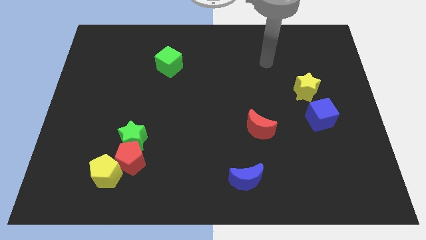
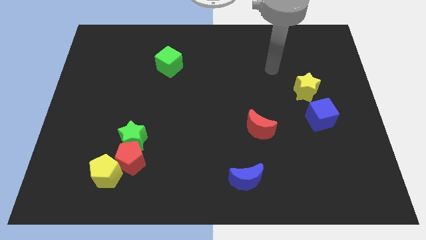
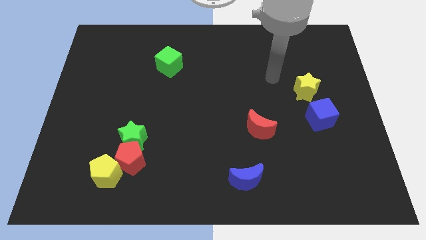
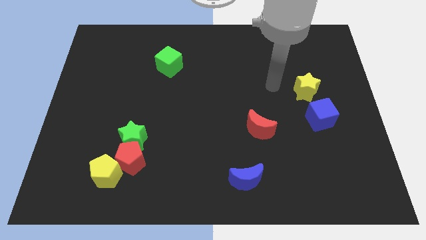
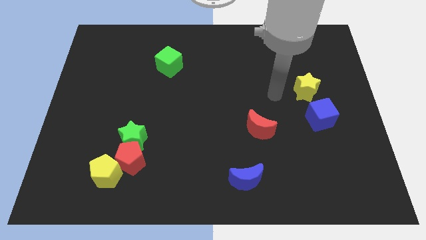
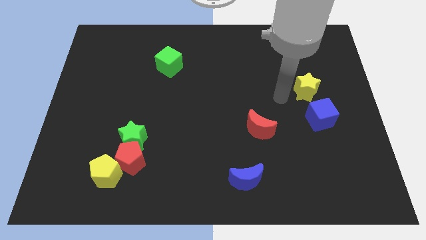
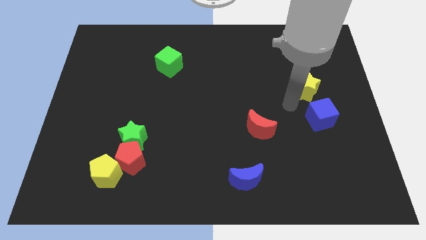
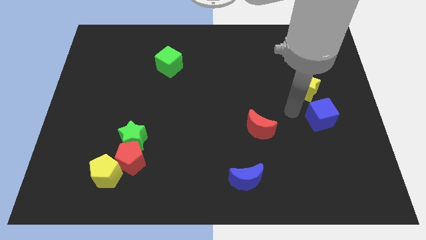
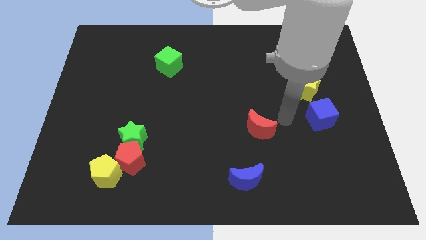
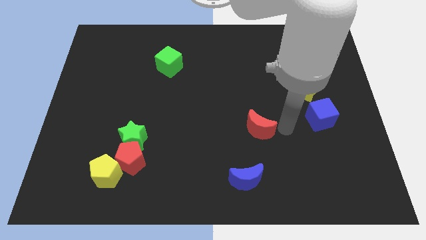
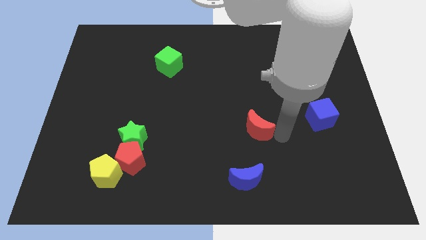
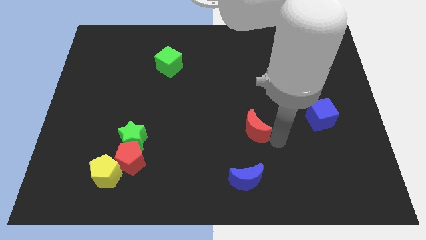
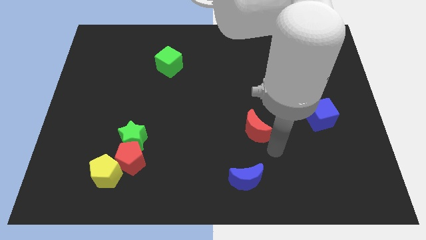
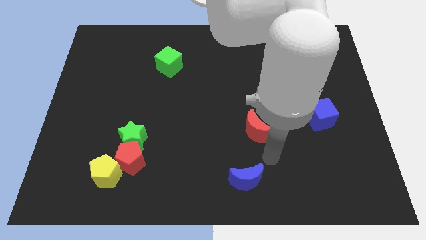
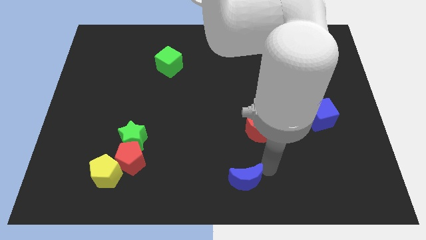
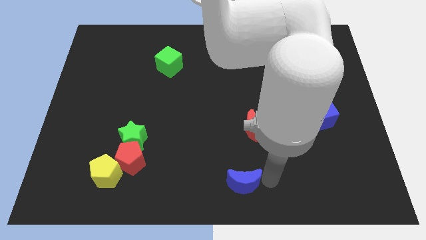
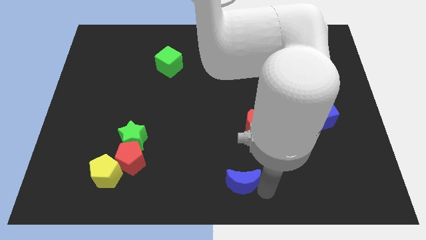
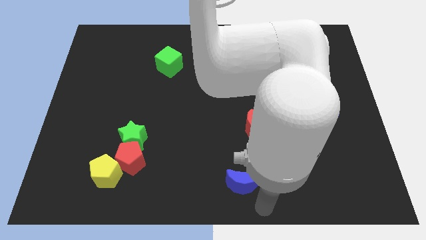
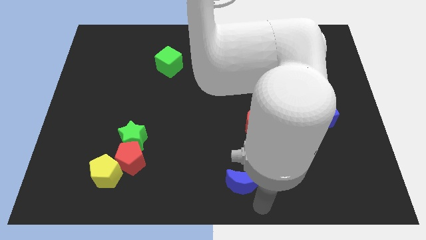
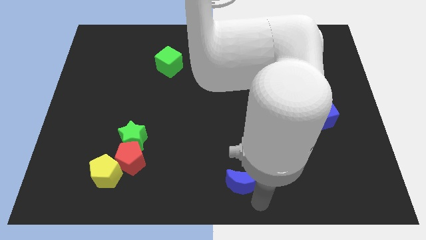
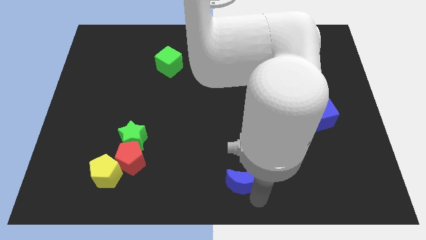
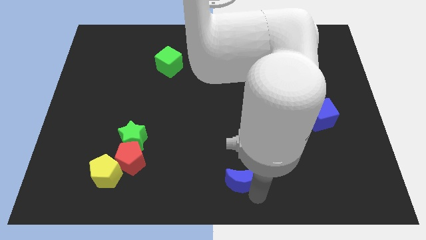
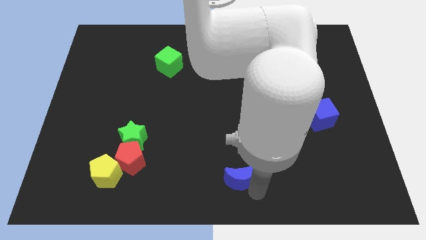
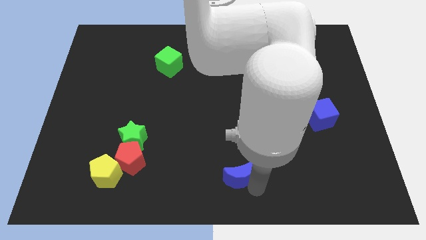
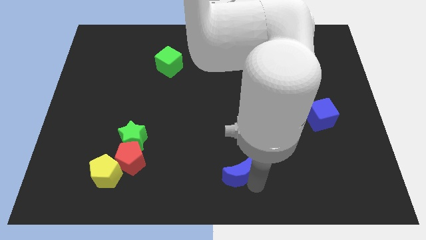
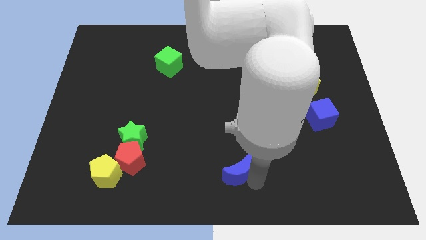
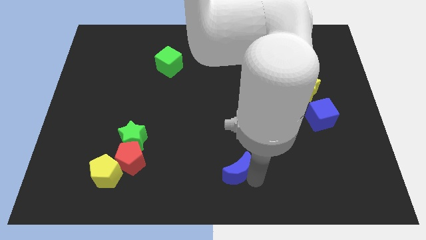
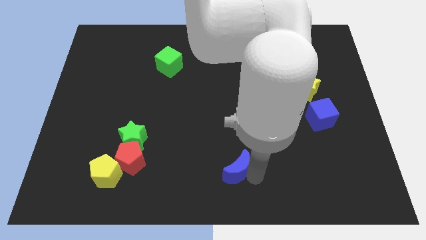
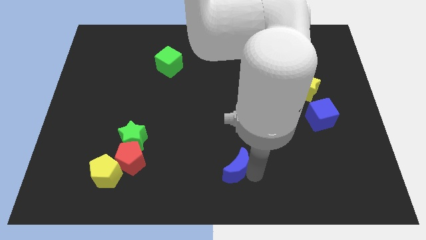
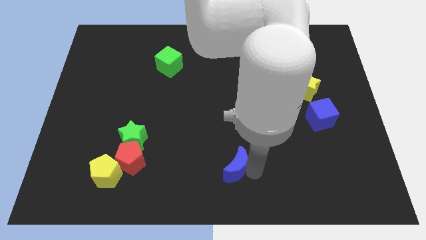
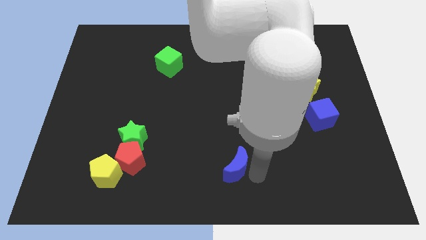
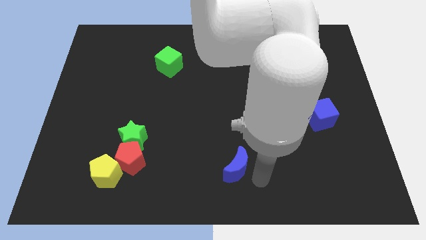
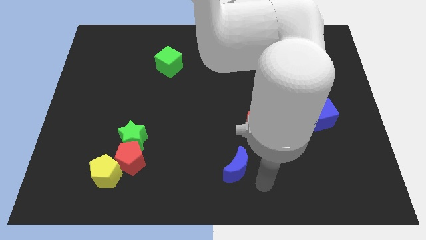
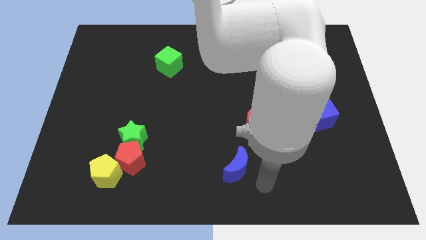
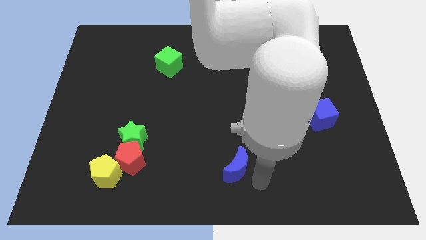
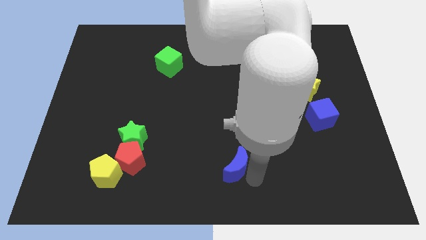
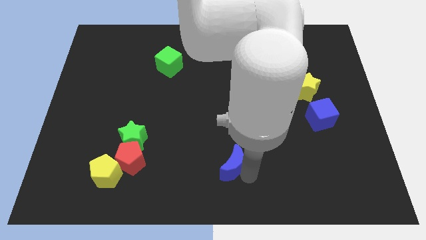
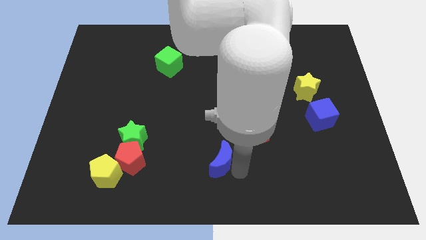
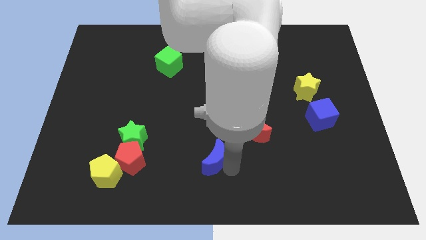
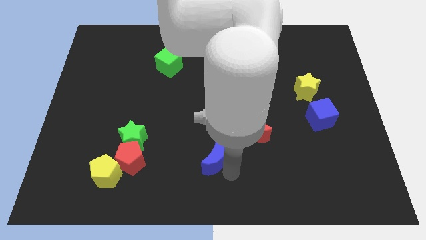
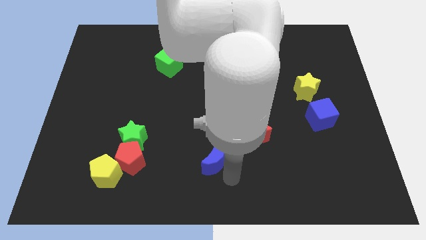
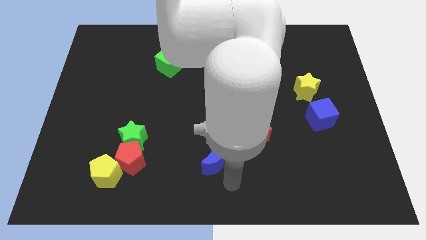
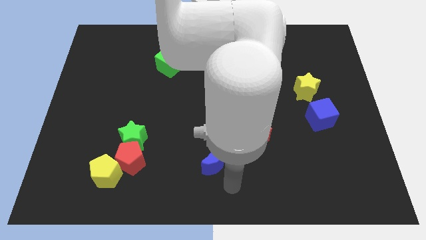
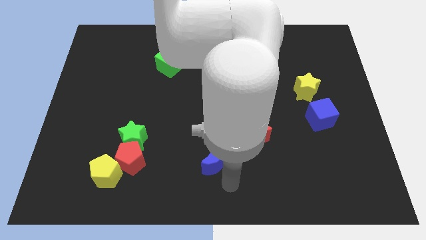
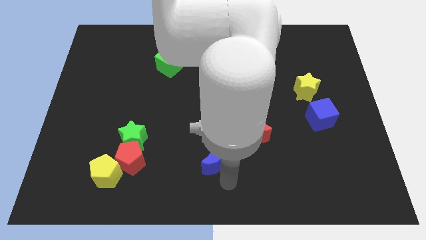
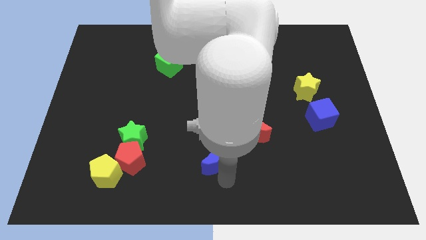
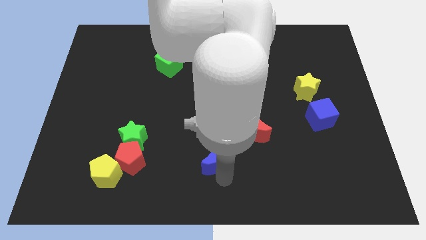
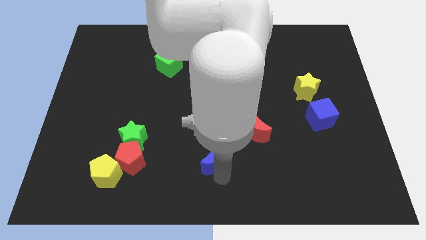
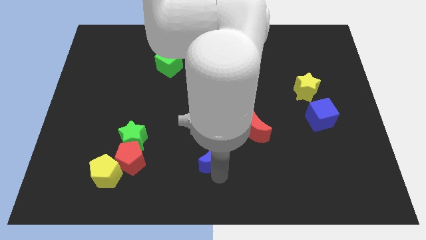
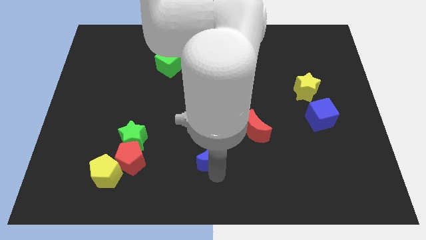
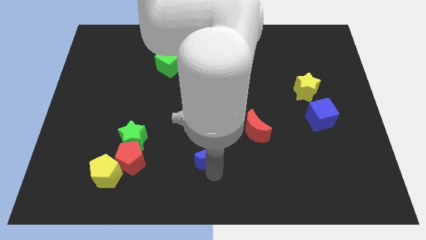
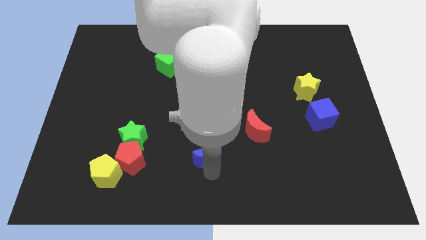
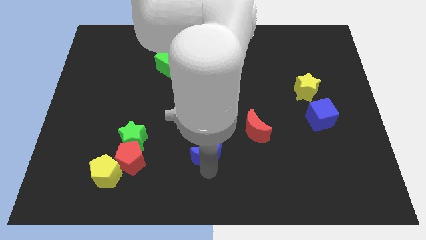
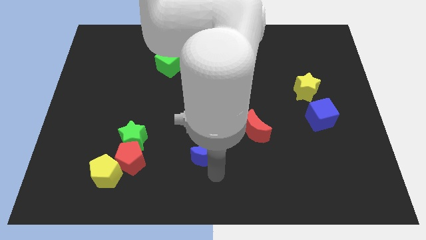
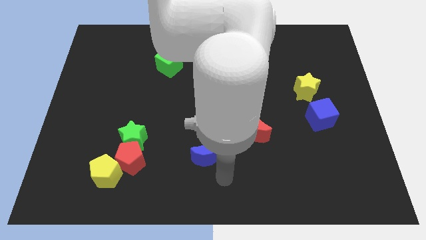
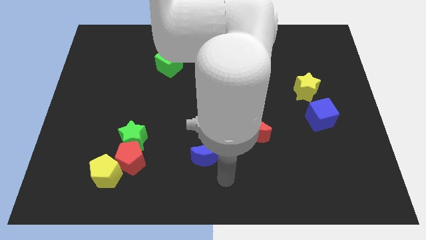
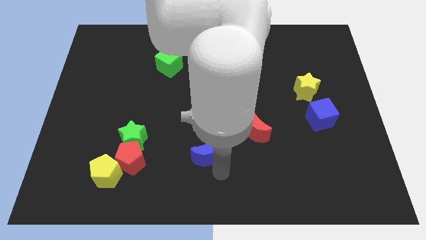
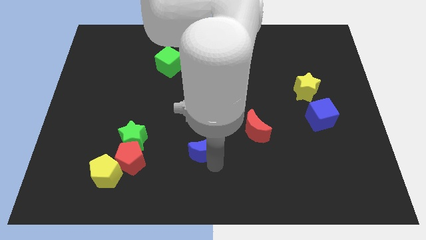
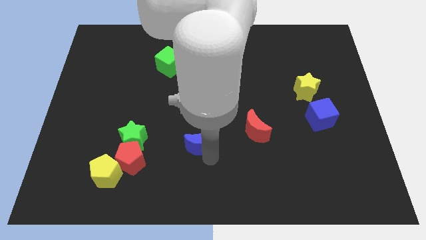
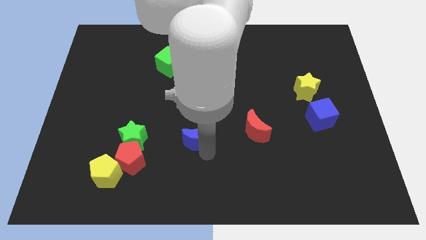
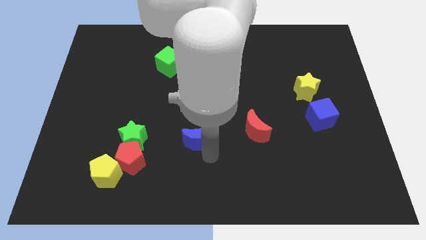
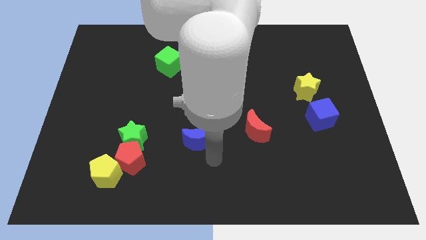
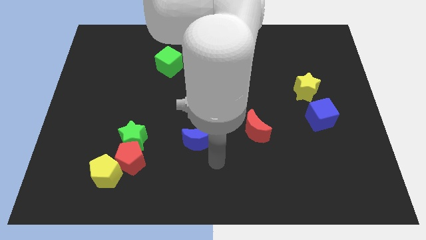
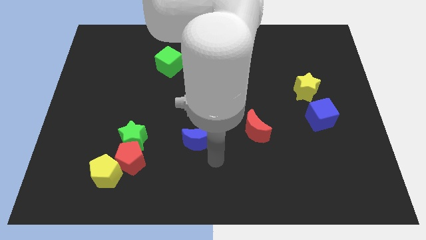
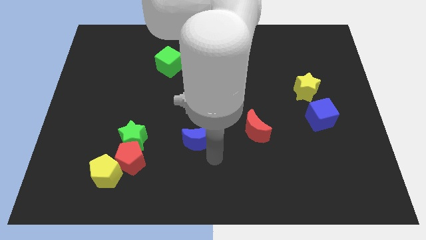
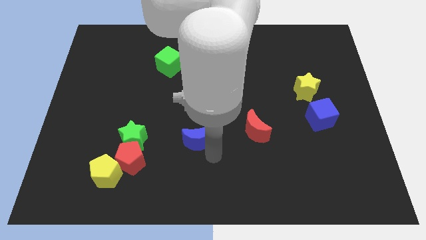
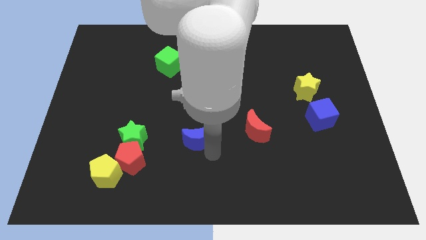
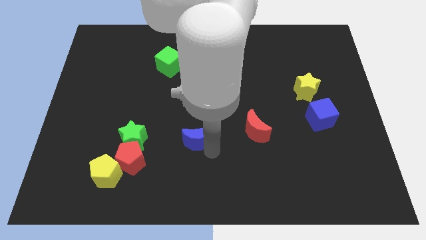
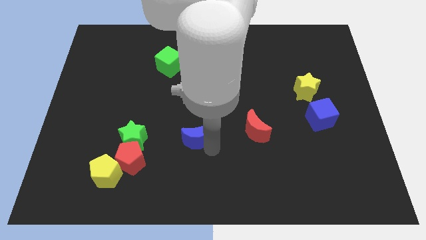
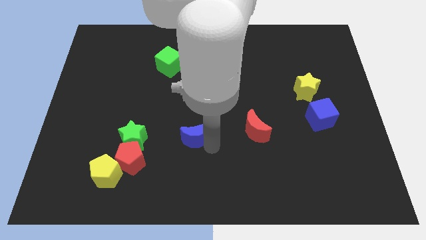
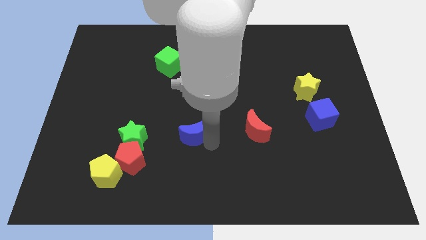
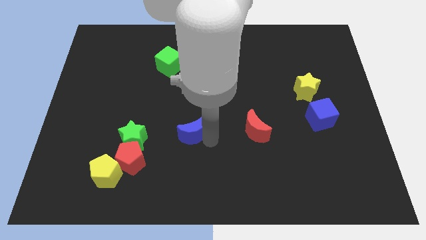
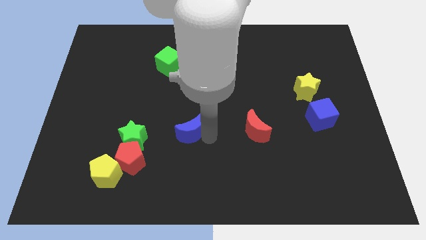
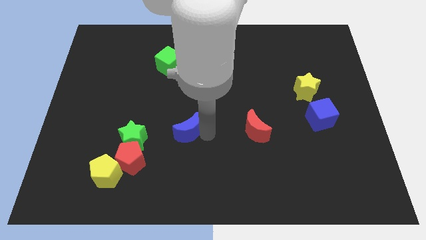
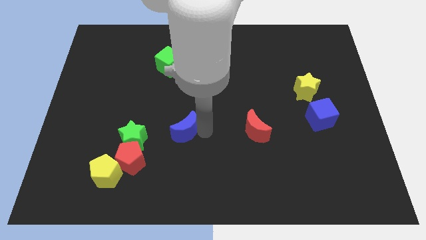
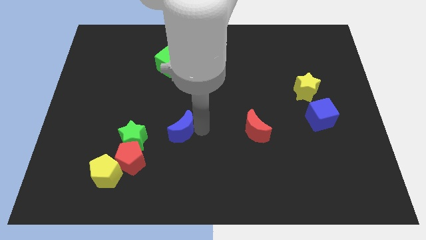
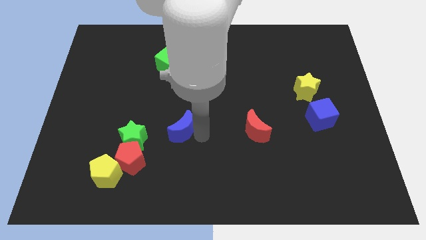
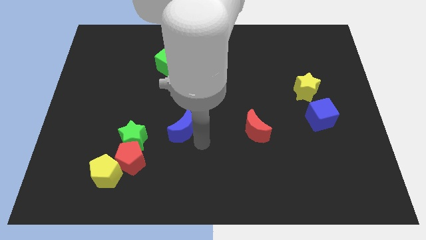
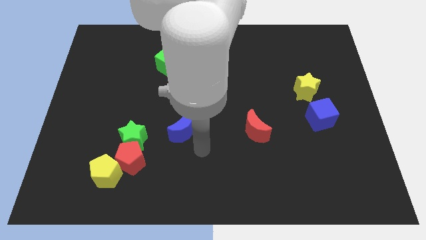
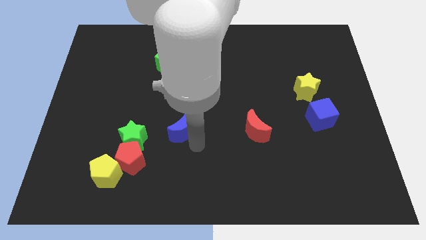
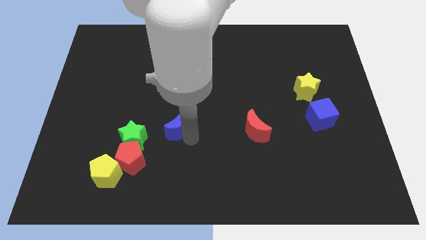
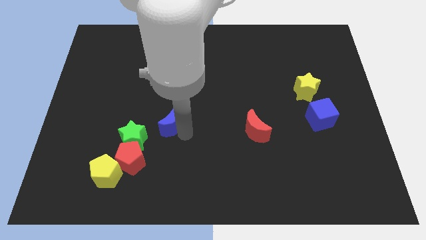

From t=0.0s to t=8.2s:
slide the blue moon diagonally upwards and left
